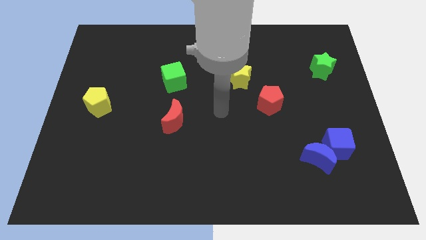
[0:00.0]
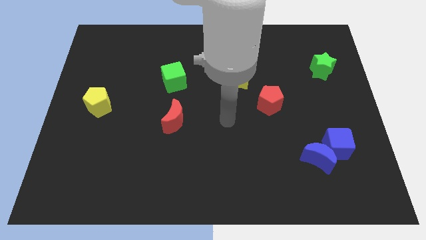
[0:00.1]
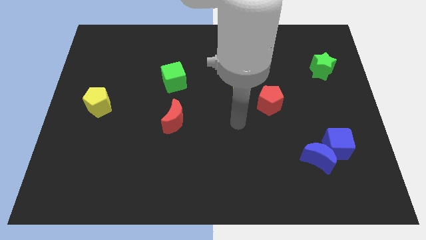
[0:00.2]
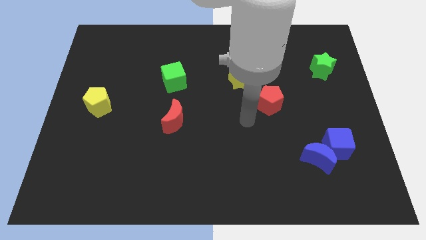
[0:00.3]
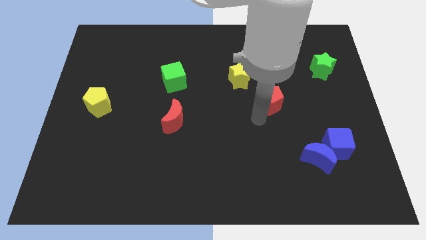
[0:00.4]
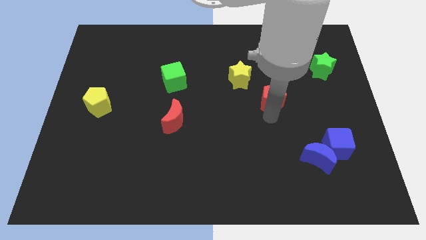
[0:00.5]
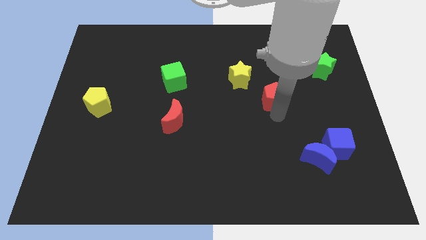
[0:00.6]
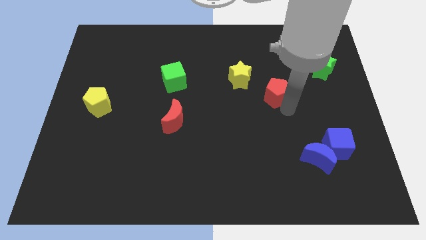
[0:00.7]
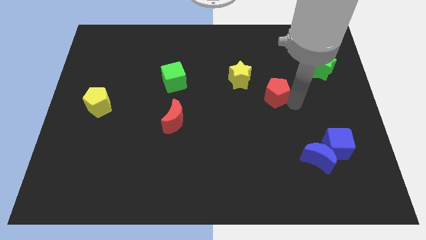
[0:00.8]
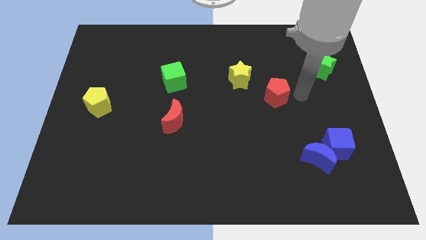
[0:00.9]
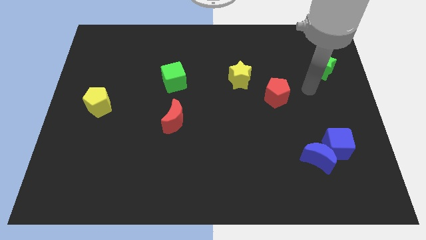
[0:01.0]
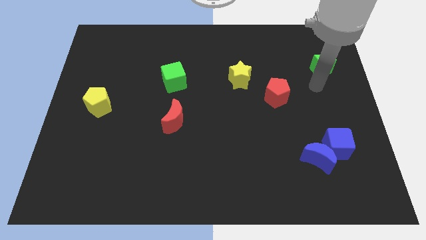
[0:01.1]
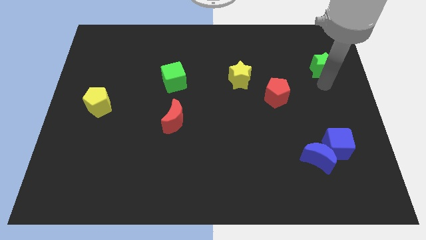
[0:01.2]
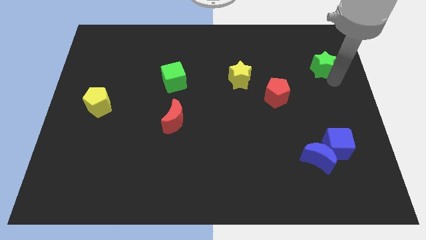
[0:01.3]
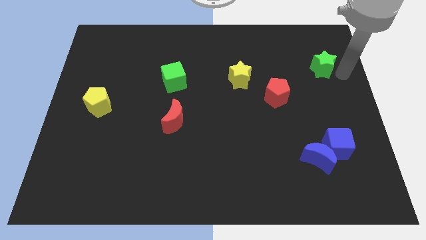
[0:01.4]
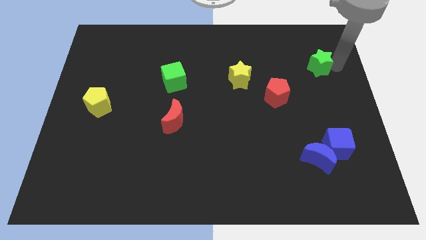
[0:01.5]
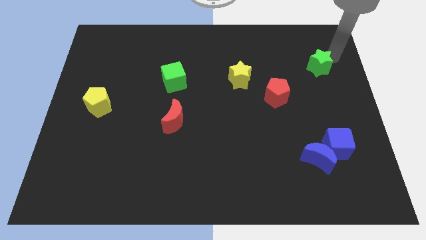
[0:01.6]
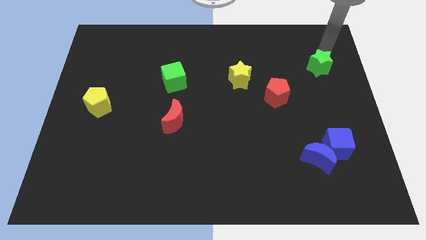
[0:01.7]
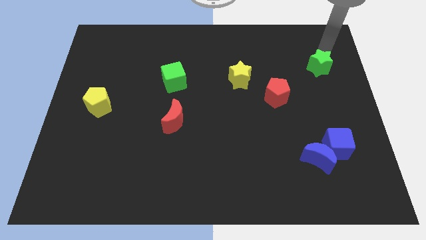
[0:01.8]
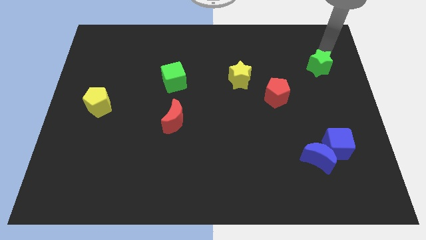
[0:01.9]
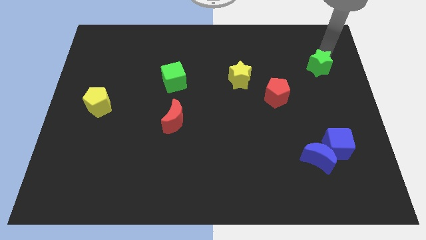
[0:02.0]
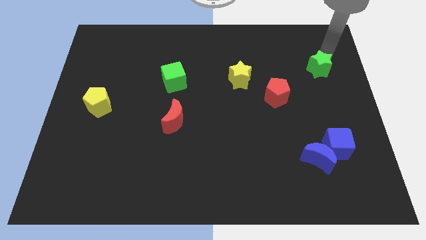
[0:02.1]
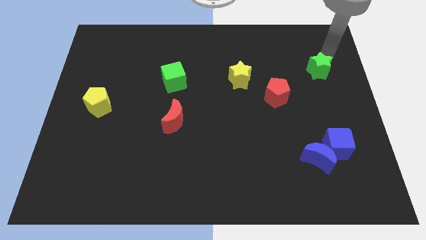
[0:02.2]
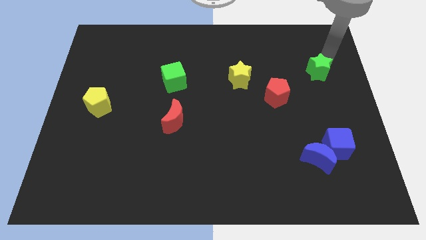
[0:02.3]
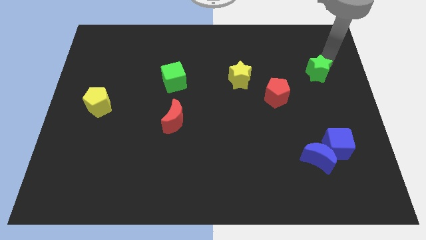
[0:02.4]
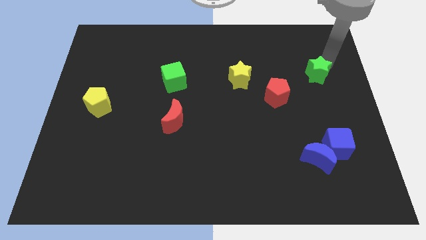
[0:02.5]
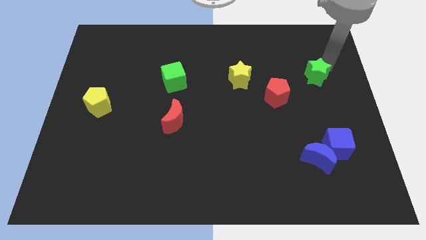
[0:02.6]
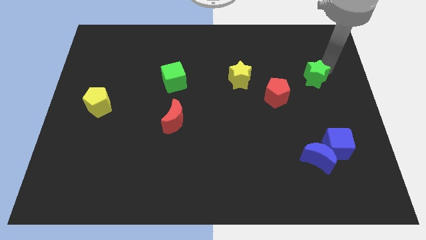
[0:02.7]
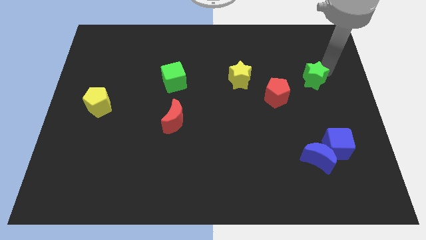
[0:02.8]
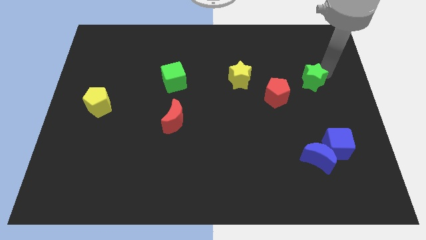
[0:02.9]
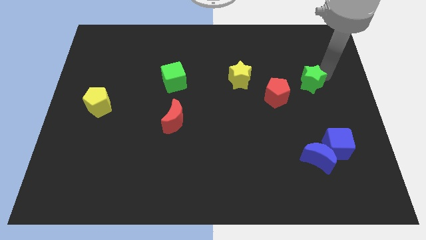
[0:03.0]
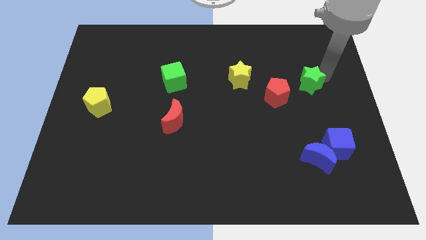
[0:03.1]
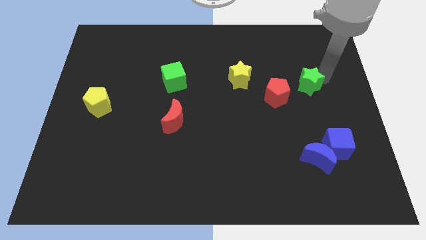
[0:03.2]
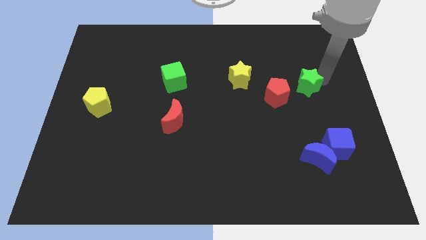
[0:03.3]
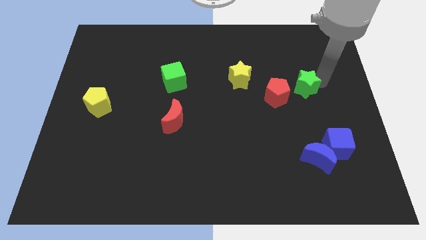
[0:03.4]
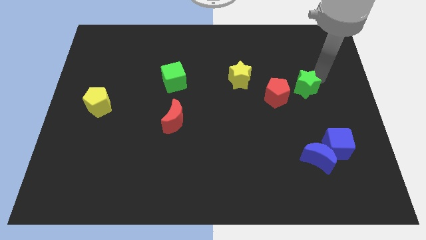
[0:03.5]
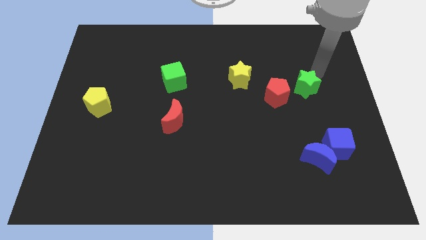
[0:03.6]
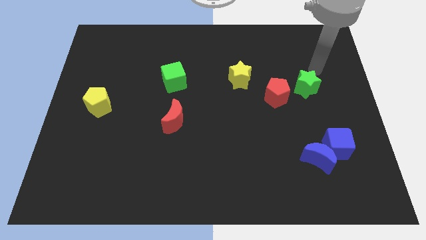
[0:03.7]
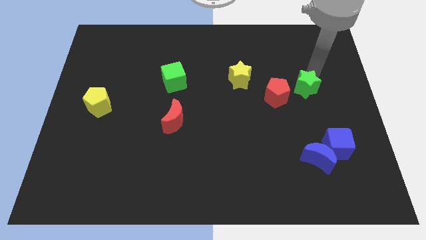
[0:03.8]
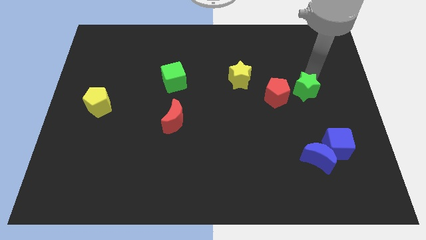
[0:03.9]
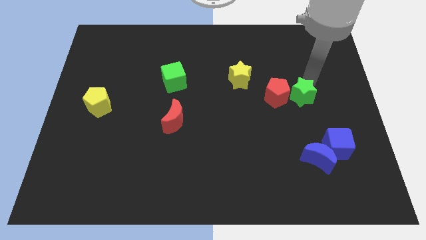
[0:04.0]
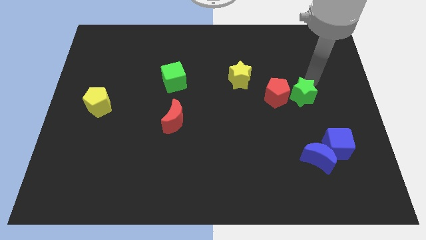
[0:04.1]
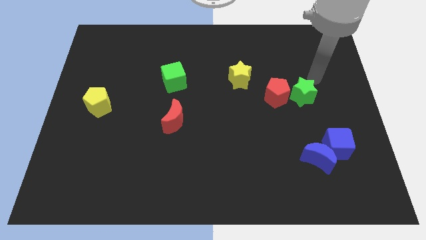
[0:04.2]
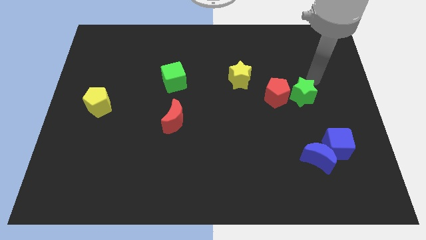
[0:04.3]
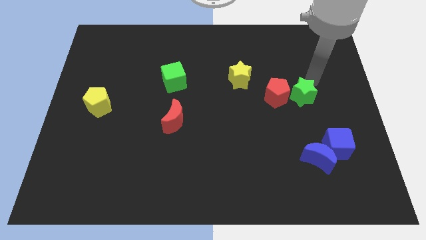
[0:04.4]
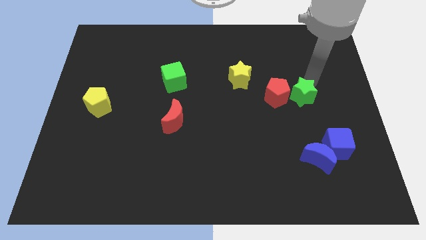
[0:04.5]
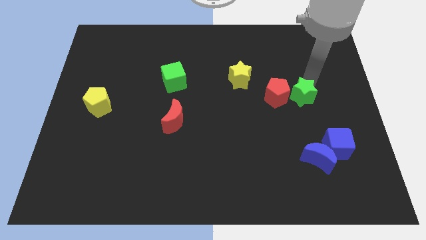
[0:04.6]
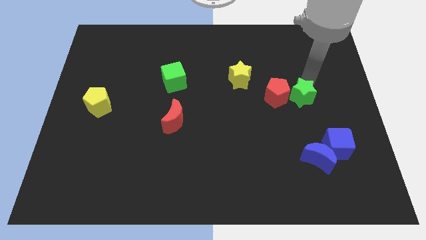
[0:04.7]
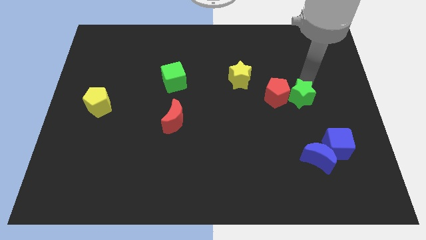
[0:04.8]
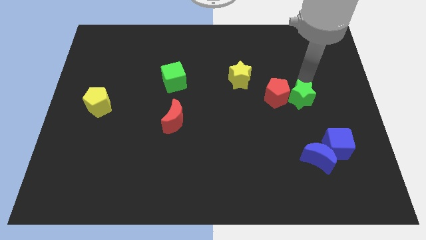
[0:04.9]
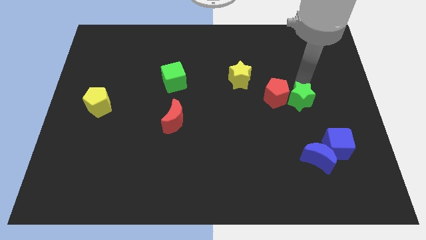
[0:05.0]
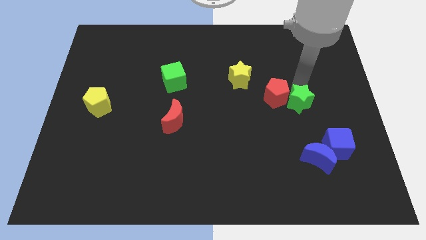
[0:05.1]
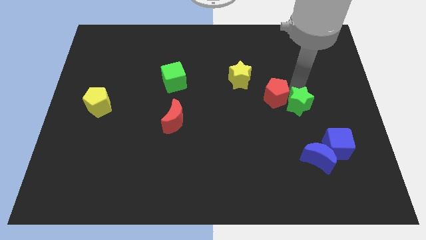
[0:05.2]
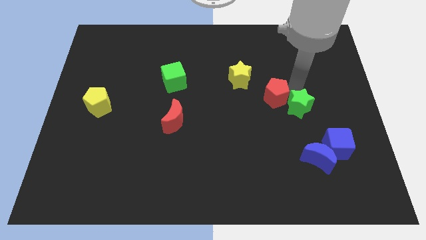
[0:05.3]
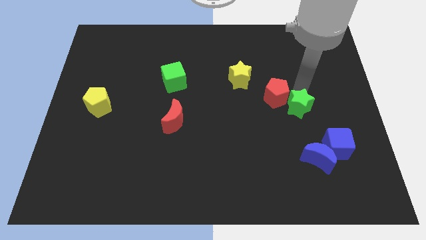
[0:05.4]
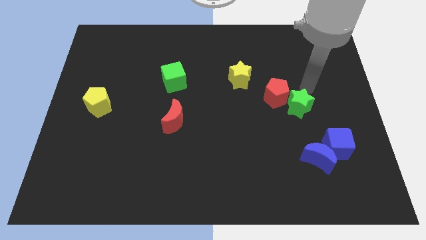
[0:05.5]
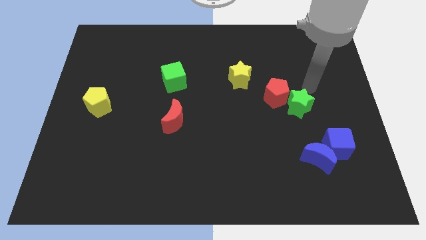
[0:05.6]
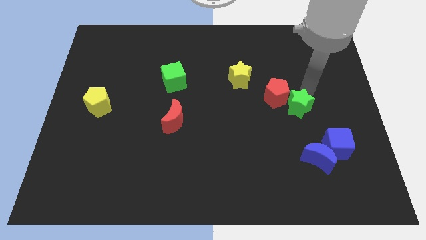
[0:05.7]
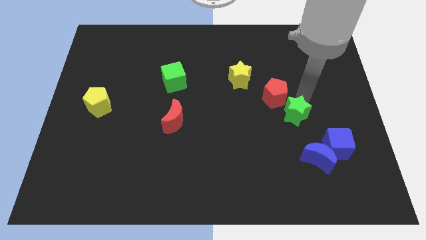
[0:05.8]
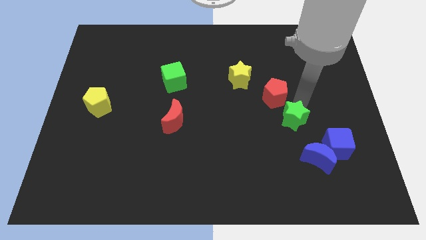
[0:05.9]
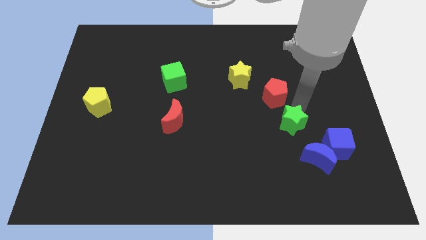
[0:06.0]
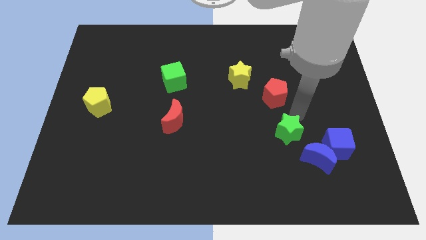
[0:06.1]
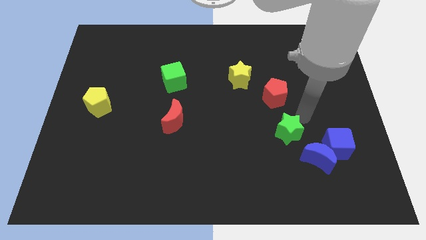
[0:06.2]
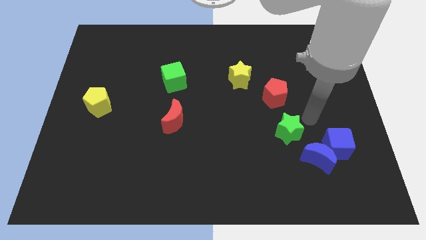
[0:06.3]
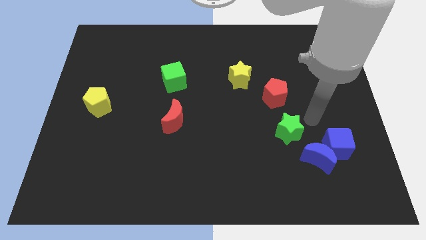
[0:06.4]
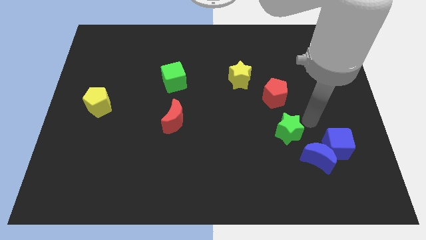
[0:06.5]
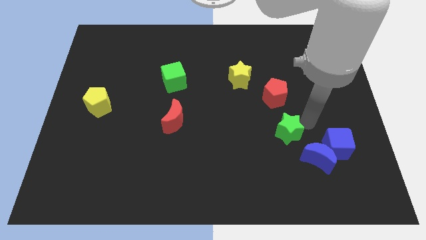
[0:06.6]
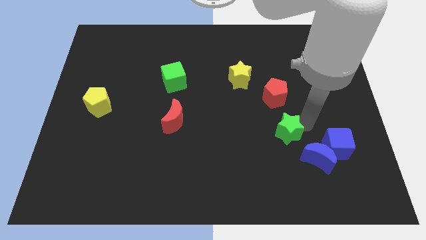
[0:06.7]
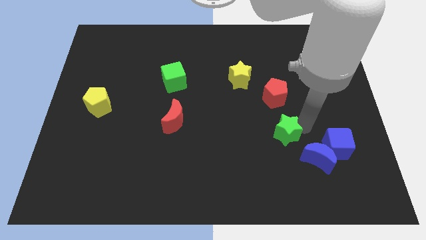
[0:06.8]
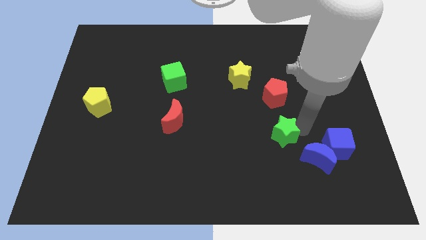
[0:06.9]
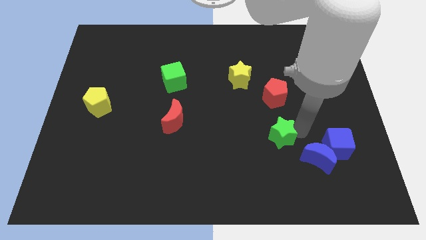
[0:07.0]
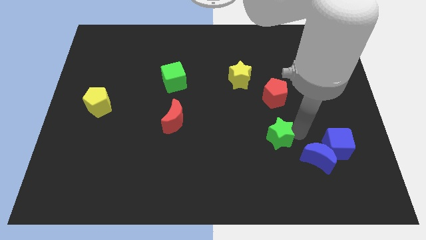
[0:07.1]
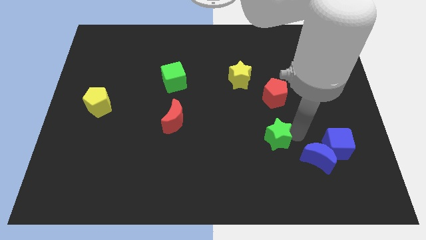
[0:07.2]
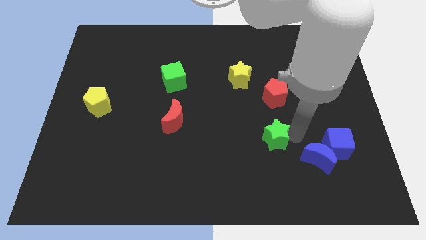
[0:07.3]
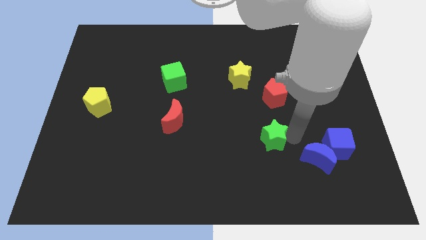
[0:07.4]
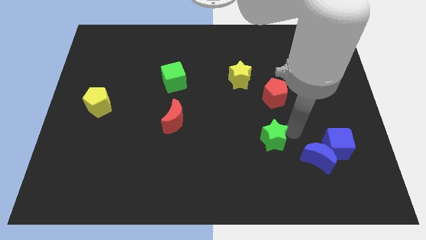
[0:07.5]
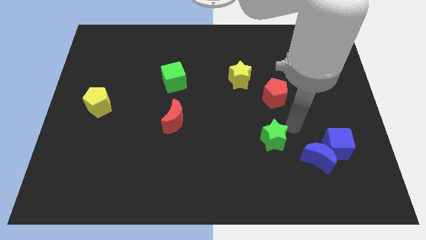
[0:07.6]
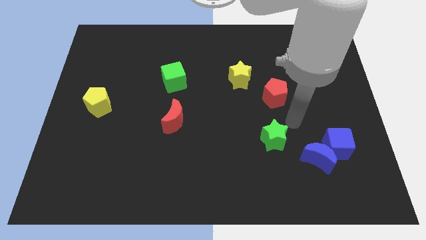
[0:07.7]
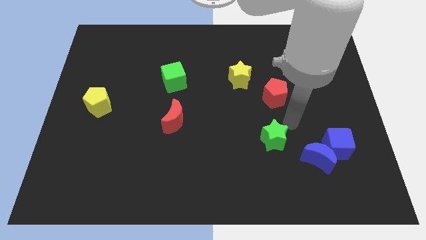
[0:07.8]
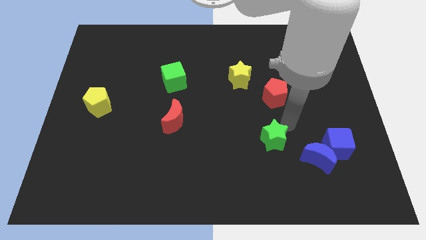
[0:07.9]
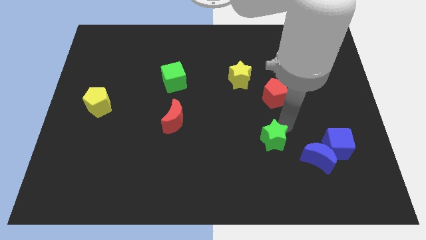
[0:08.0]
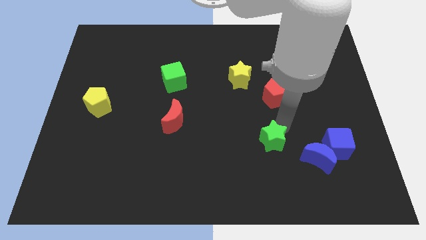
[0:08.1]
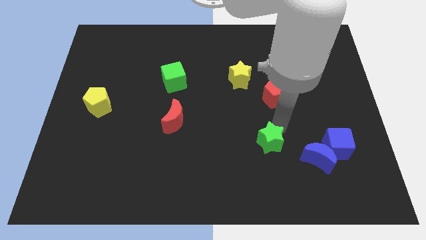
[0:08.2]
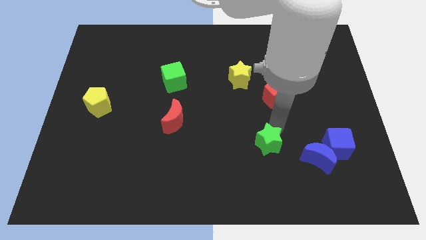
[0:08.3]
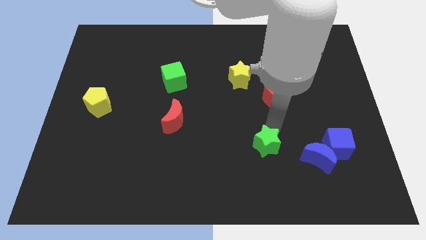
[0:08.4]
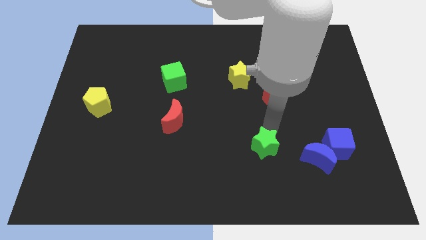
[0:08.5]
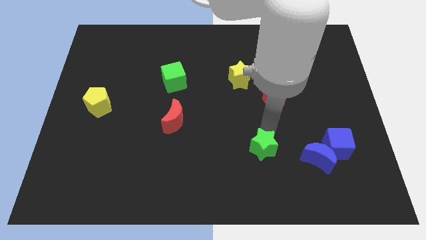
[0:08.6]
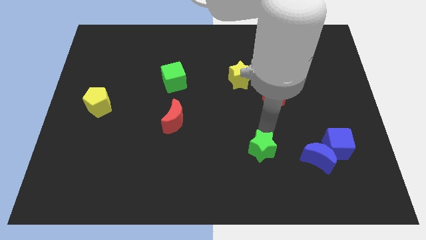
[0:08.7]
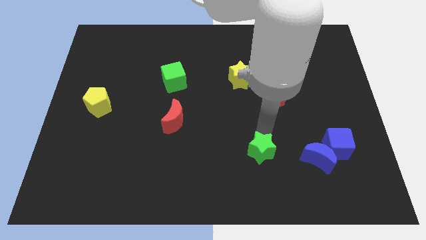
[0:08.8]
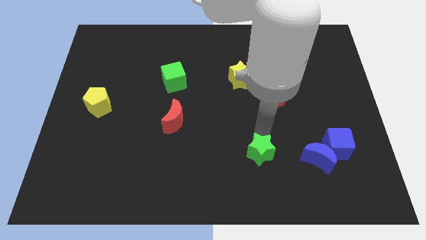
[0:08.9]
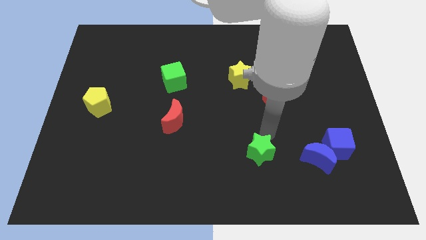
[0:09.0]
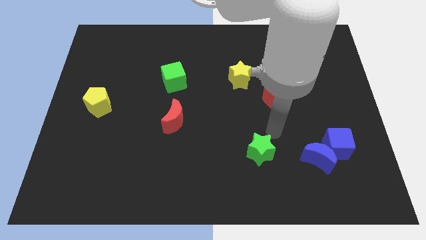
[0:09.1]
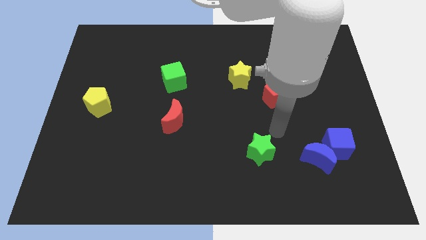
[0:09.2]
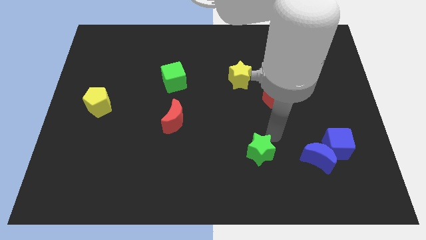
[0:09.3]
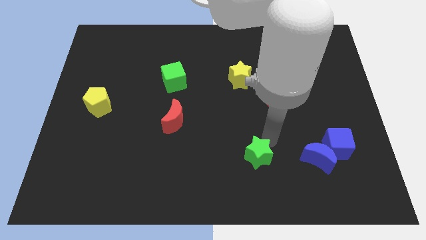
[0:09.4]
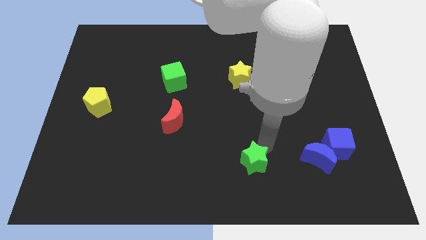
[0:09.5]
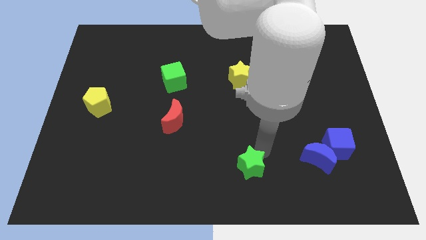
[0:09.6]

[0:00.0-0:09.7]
slide the green star to the bottom
